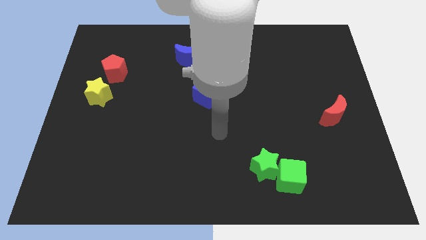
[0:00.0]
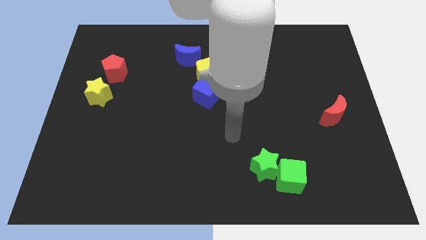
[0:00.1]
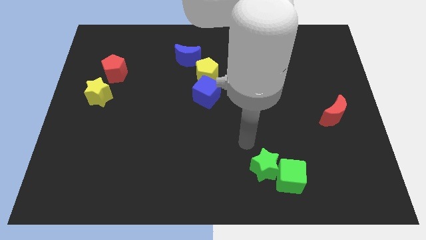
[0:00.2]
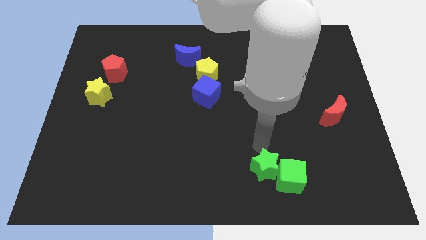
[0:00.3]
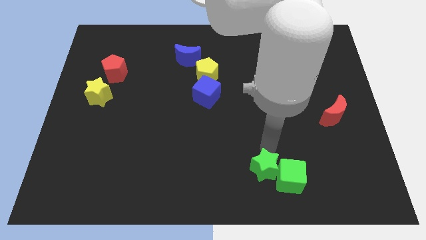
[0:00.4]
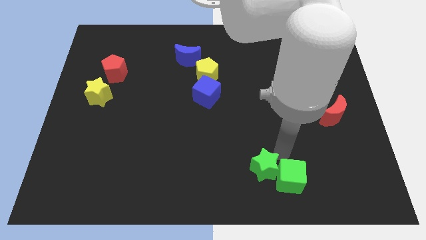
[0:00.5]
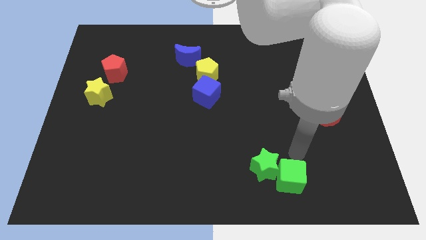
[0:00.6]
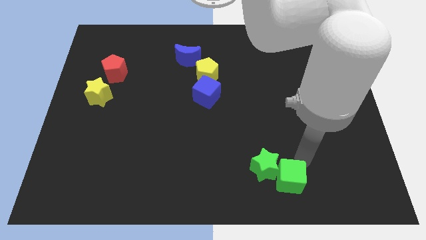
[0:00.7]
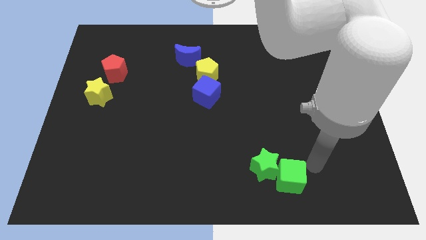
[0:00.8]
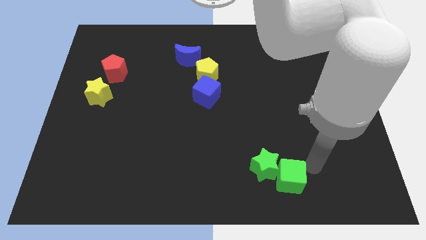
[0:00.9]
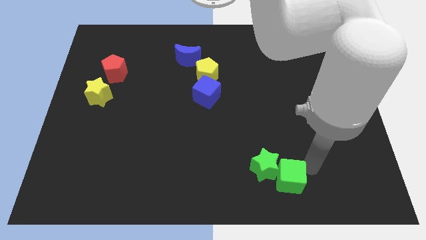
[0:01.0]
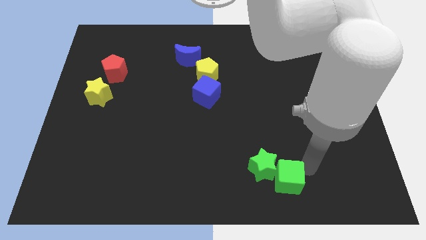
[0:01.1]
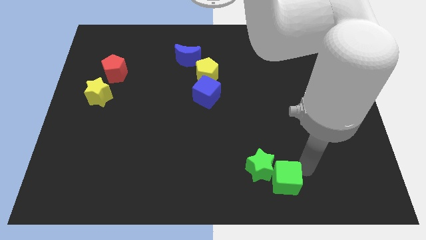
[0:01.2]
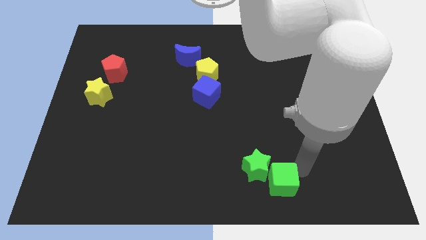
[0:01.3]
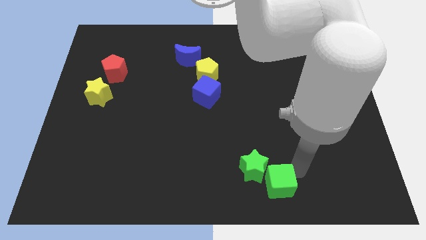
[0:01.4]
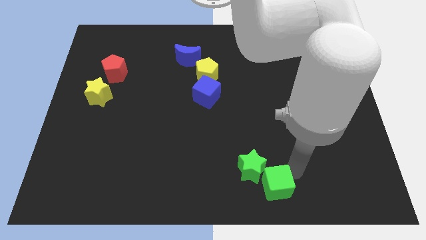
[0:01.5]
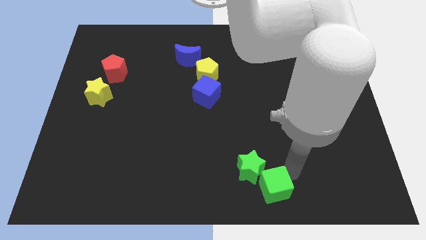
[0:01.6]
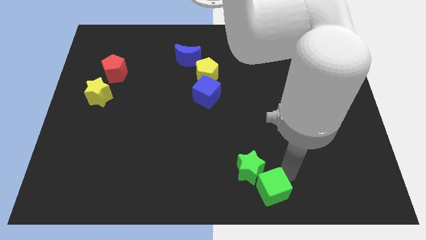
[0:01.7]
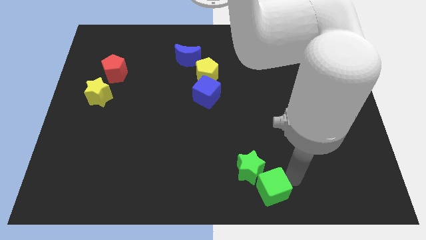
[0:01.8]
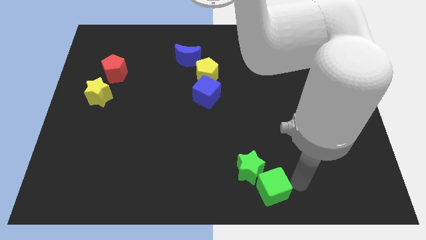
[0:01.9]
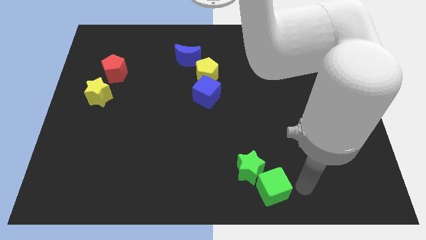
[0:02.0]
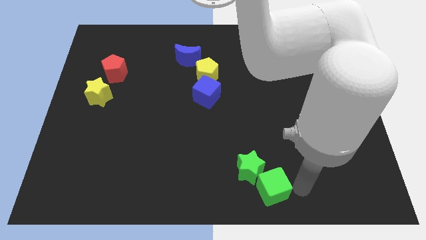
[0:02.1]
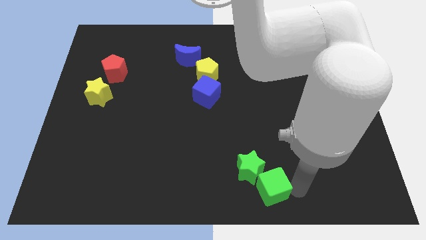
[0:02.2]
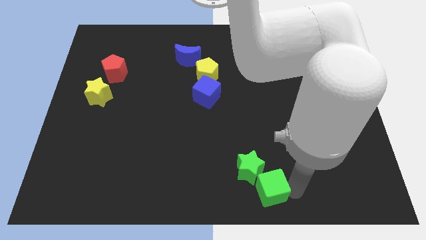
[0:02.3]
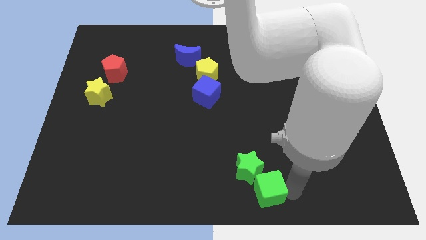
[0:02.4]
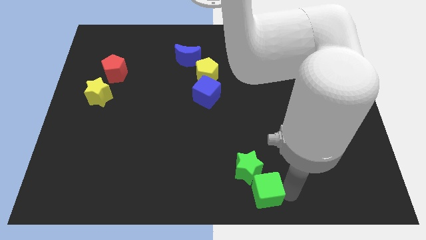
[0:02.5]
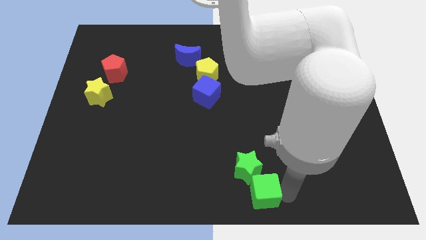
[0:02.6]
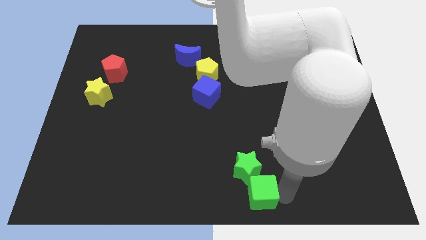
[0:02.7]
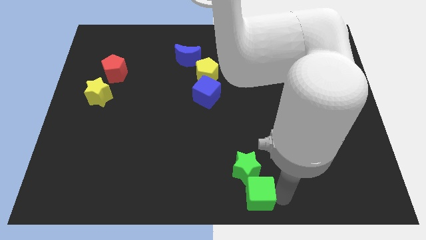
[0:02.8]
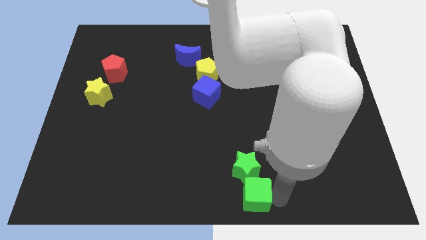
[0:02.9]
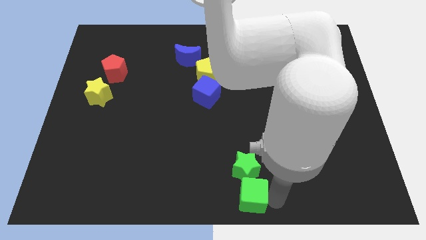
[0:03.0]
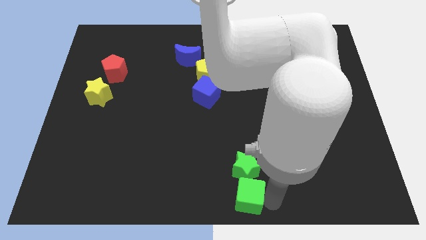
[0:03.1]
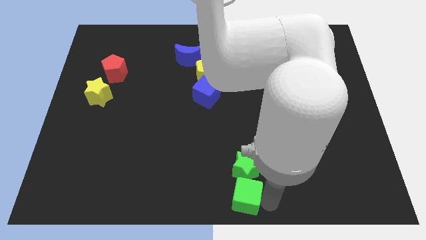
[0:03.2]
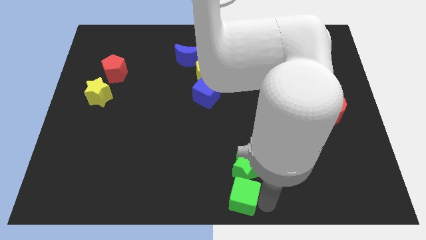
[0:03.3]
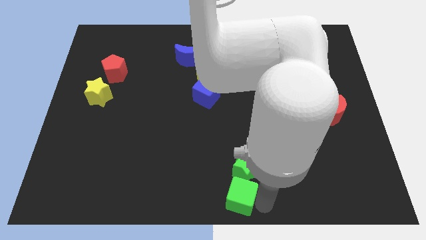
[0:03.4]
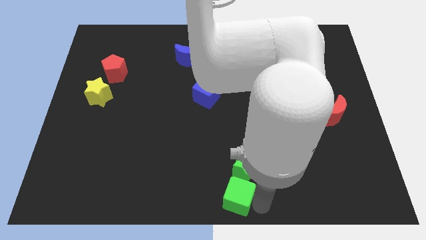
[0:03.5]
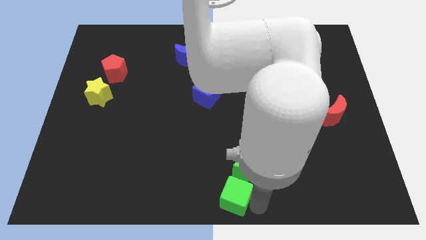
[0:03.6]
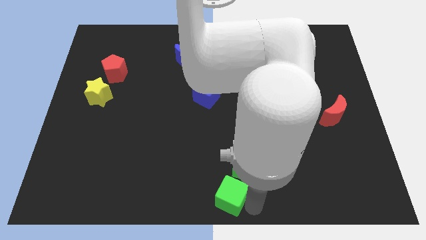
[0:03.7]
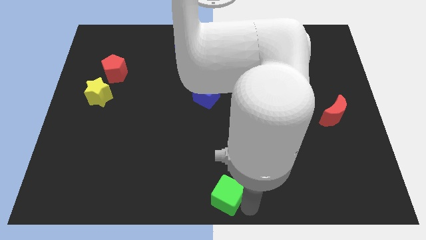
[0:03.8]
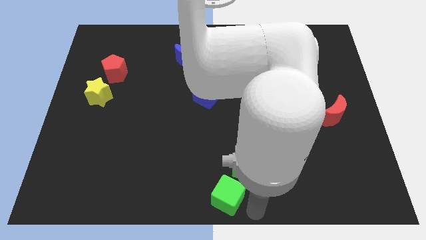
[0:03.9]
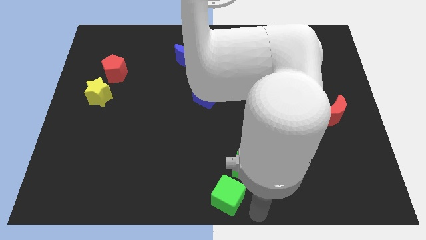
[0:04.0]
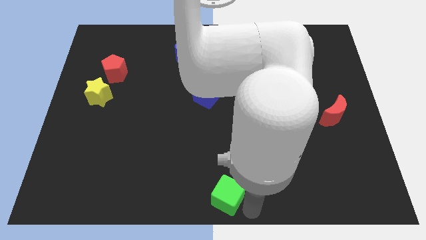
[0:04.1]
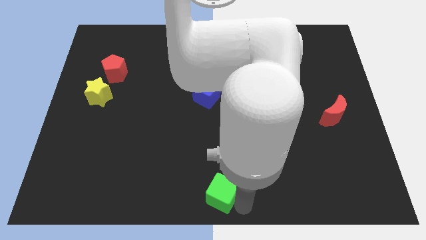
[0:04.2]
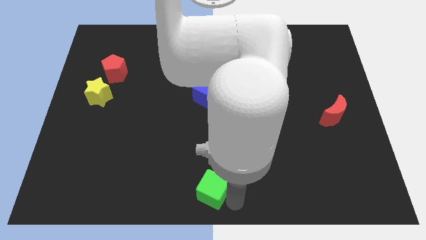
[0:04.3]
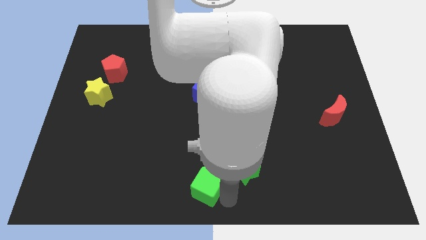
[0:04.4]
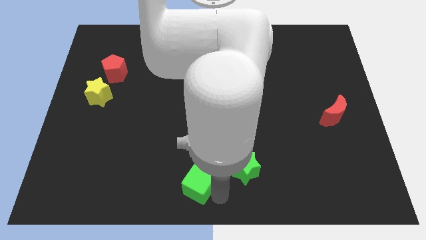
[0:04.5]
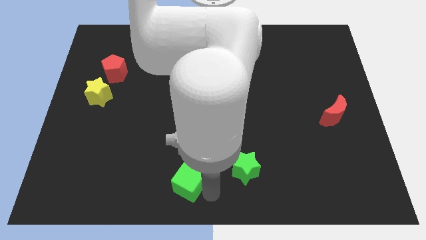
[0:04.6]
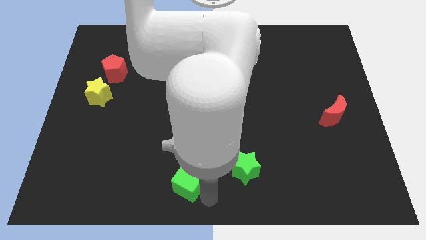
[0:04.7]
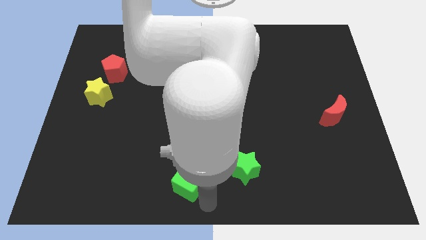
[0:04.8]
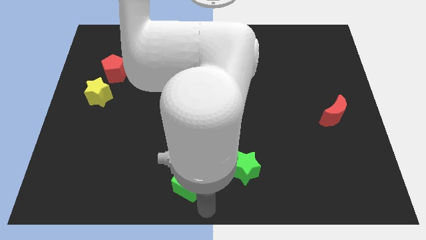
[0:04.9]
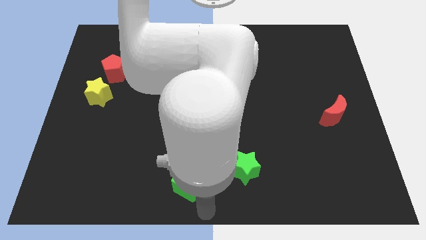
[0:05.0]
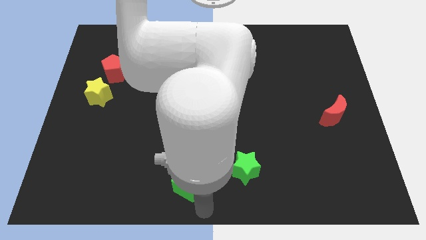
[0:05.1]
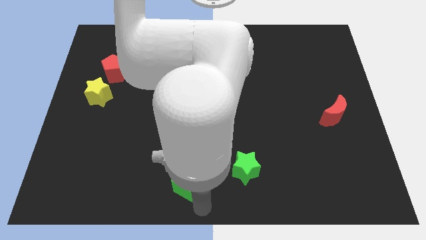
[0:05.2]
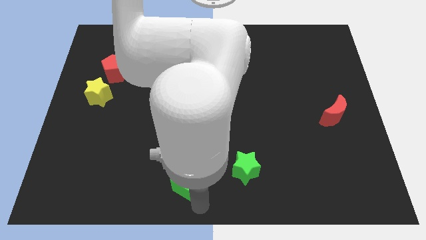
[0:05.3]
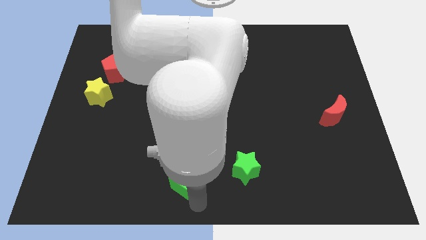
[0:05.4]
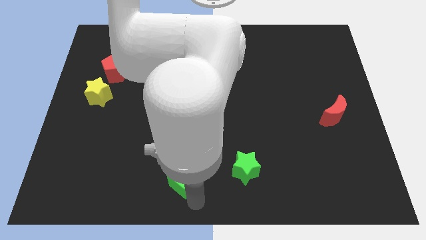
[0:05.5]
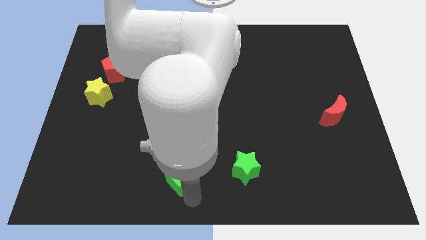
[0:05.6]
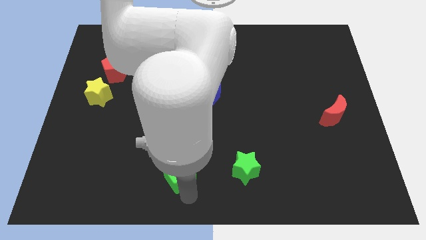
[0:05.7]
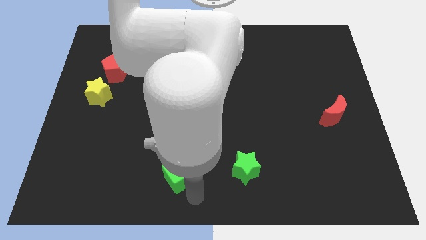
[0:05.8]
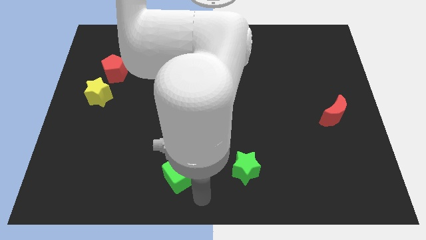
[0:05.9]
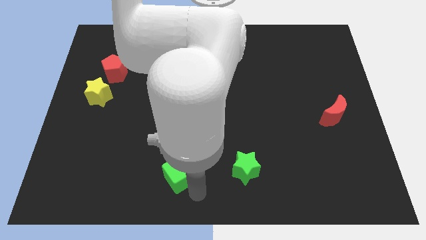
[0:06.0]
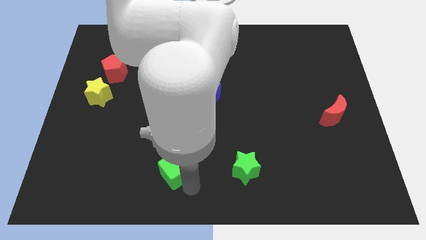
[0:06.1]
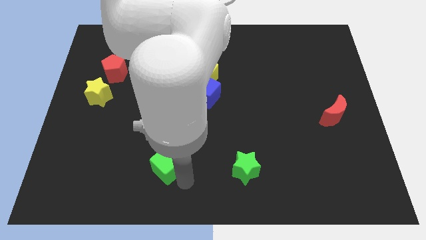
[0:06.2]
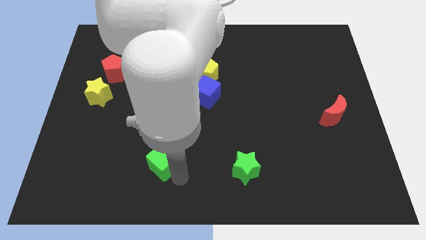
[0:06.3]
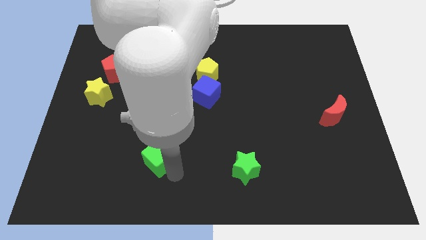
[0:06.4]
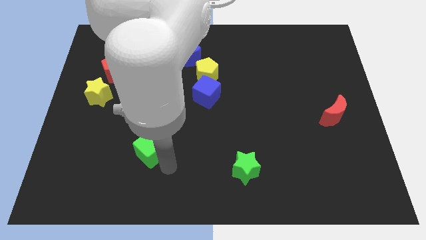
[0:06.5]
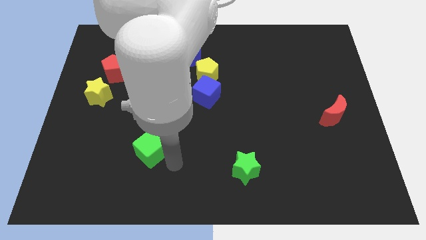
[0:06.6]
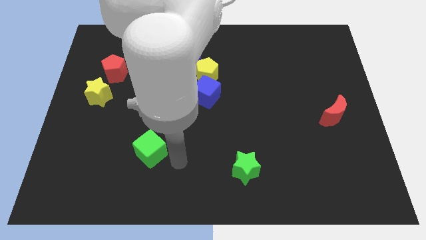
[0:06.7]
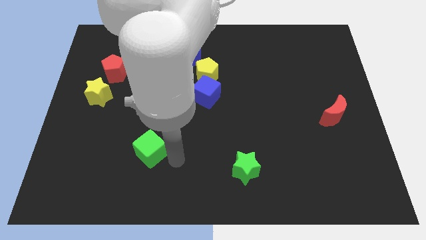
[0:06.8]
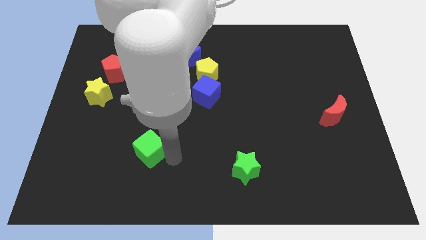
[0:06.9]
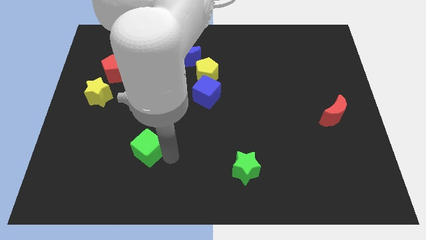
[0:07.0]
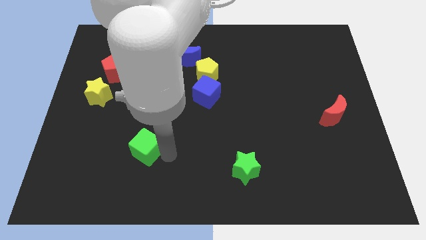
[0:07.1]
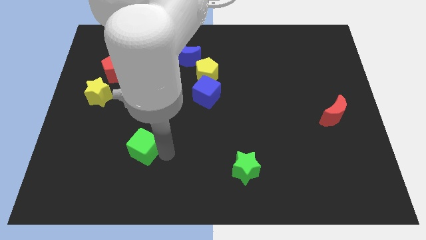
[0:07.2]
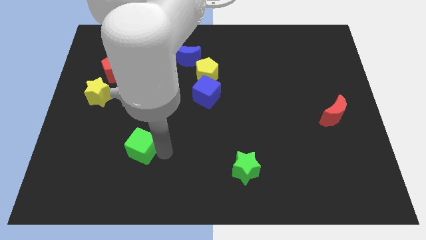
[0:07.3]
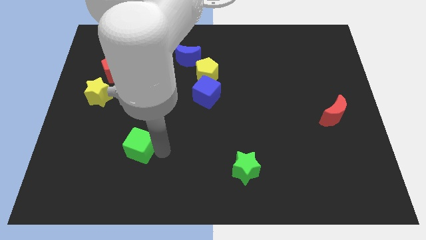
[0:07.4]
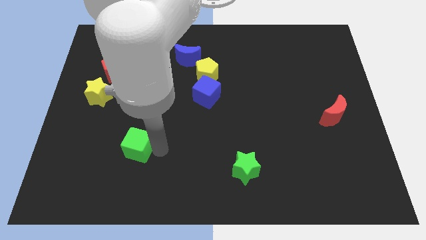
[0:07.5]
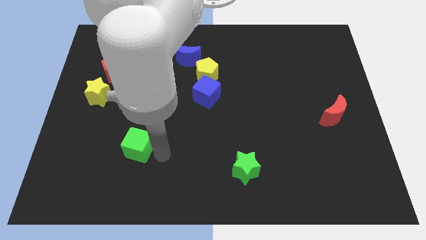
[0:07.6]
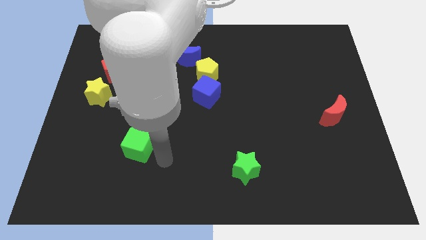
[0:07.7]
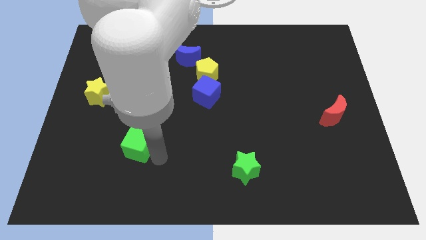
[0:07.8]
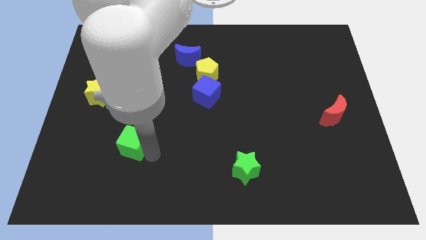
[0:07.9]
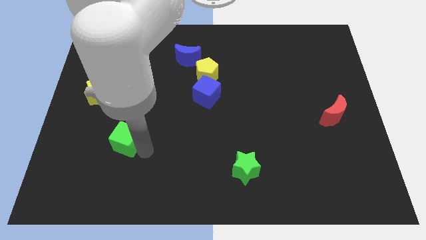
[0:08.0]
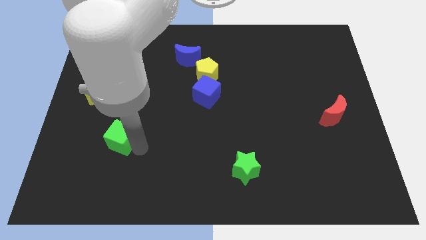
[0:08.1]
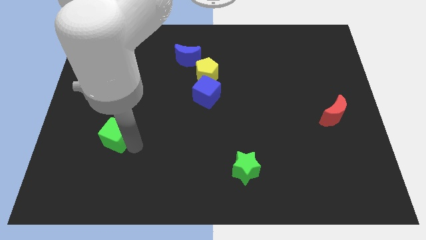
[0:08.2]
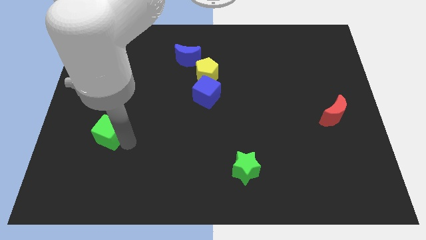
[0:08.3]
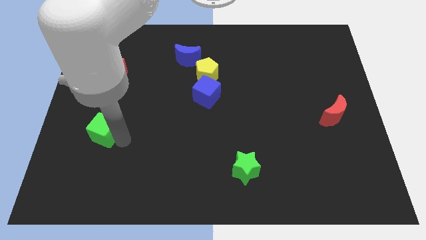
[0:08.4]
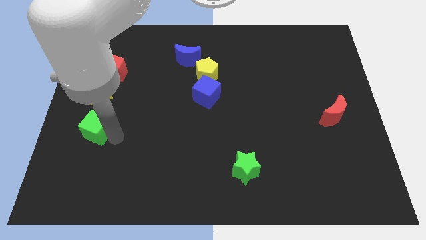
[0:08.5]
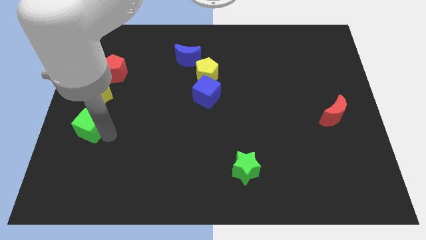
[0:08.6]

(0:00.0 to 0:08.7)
put the green cube to the center left
